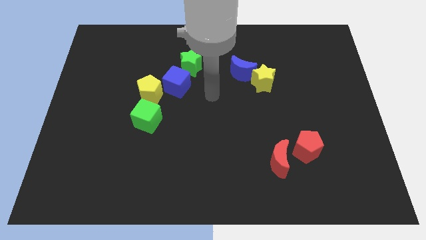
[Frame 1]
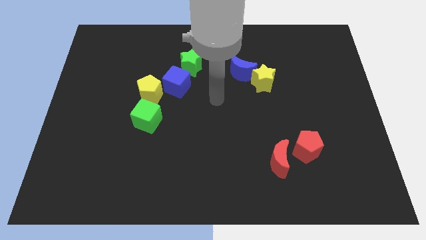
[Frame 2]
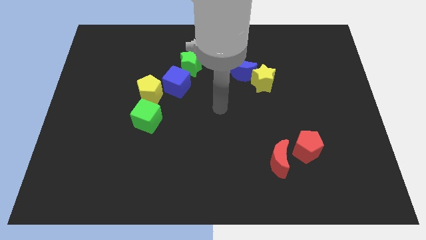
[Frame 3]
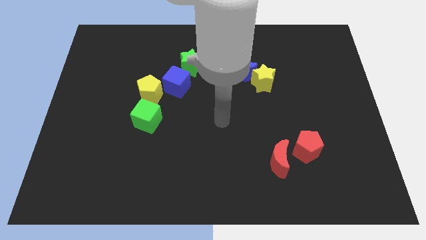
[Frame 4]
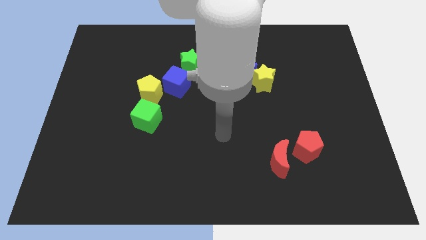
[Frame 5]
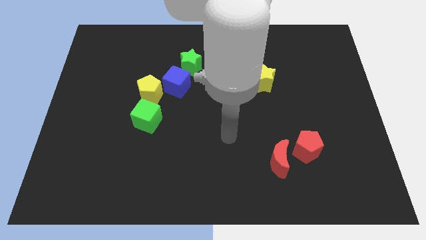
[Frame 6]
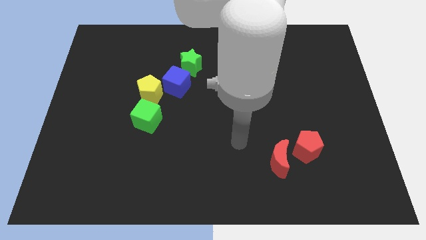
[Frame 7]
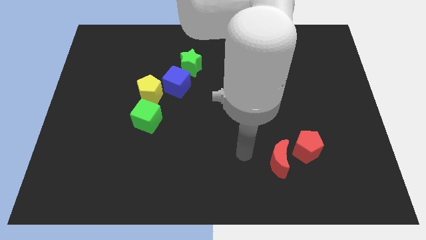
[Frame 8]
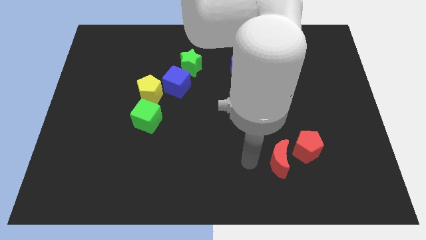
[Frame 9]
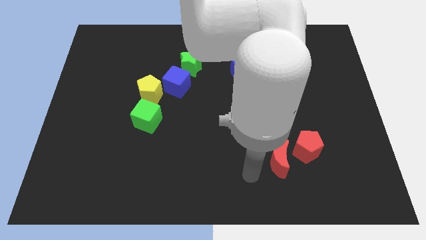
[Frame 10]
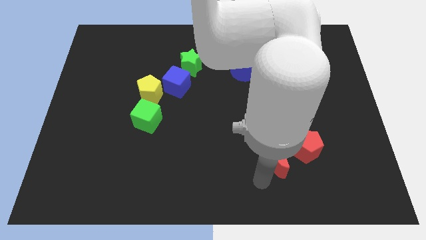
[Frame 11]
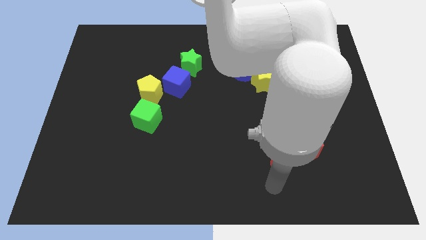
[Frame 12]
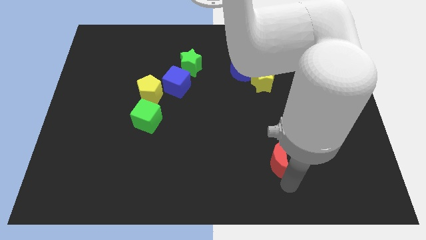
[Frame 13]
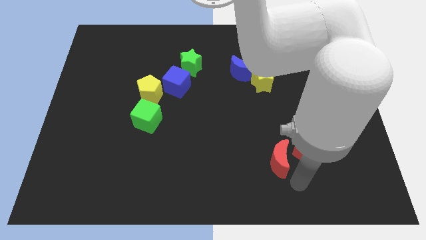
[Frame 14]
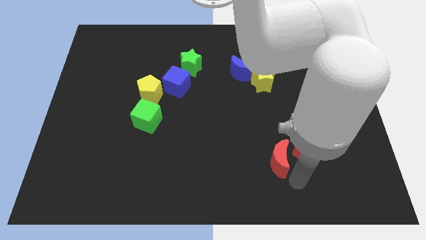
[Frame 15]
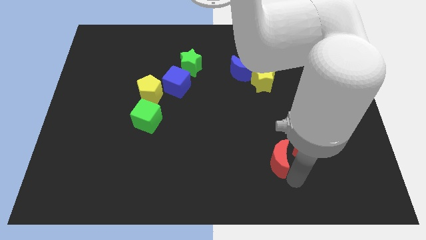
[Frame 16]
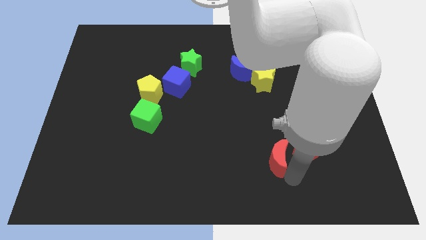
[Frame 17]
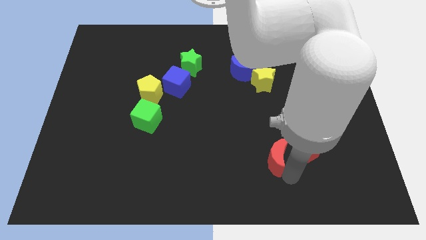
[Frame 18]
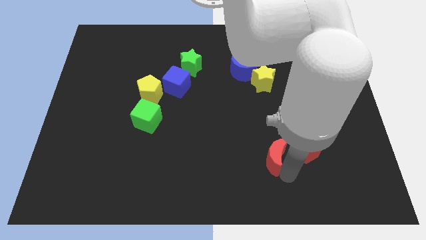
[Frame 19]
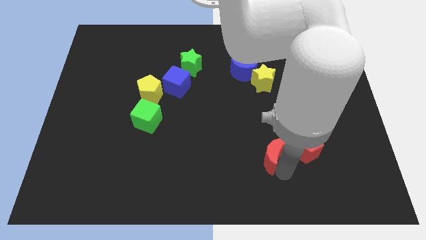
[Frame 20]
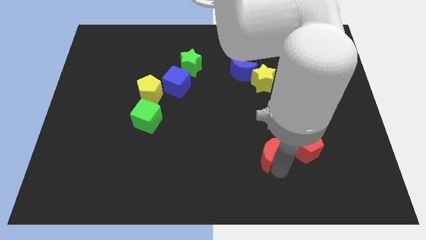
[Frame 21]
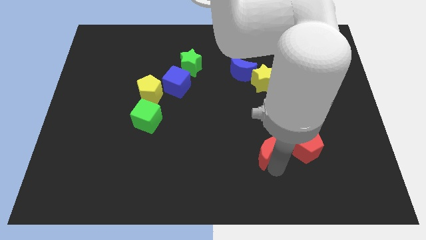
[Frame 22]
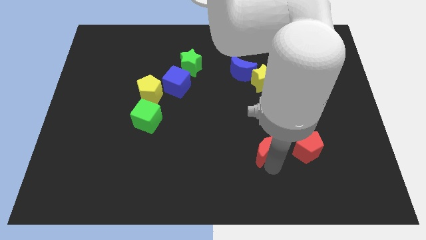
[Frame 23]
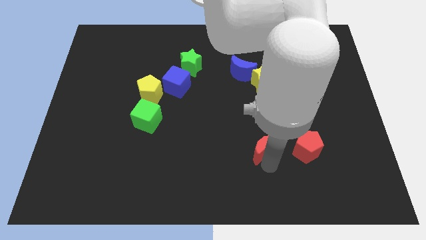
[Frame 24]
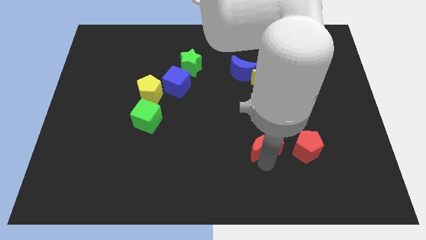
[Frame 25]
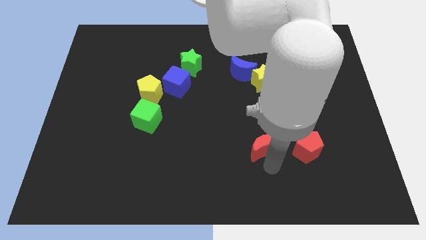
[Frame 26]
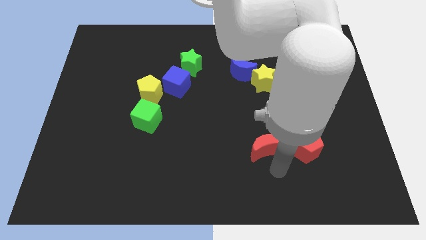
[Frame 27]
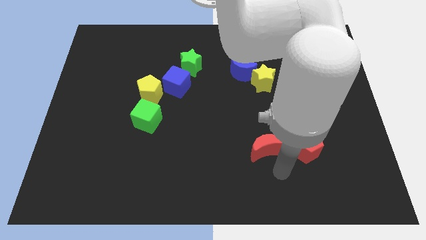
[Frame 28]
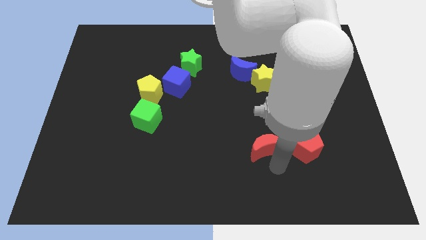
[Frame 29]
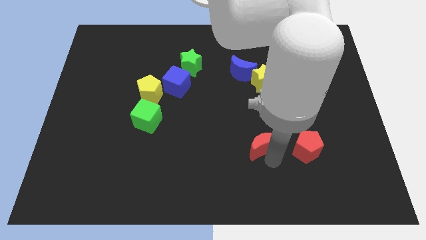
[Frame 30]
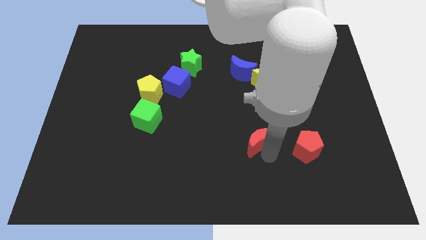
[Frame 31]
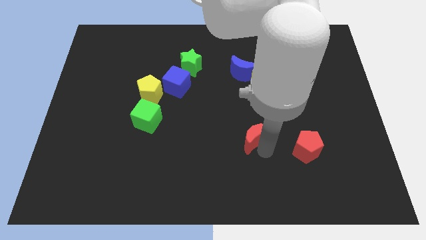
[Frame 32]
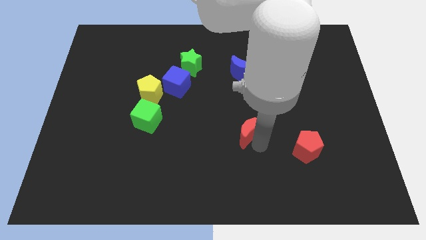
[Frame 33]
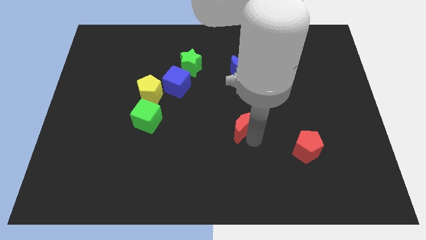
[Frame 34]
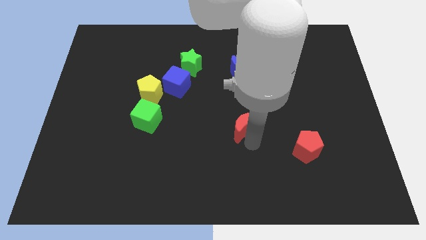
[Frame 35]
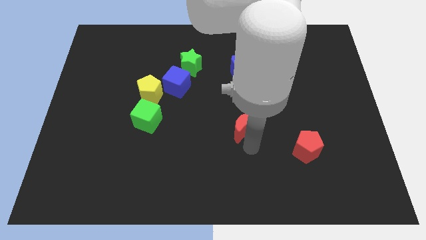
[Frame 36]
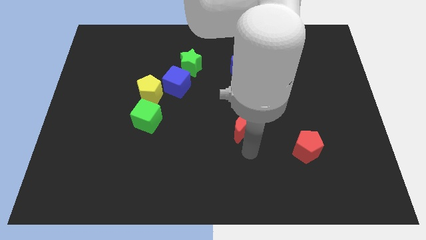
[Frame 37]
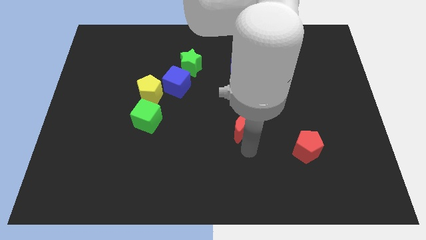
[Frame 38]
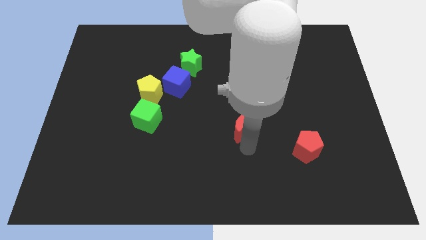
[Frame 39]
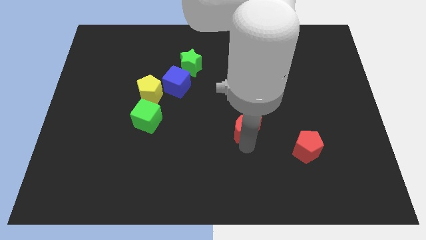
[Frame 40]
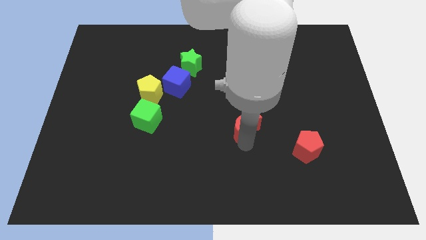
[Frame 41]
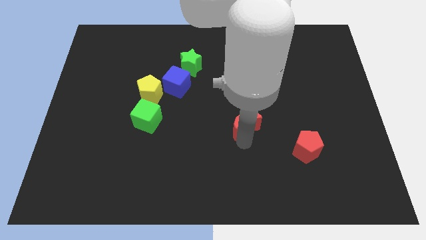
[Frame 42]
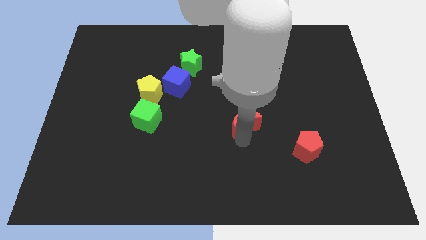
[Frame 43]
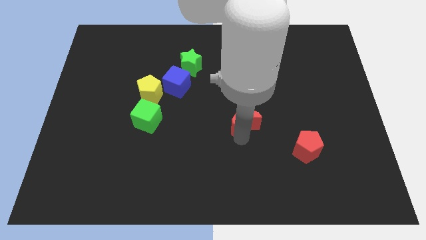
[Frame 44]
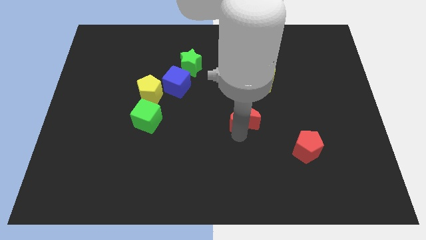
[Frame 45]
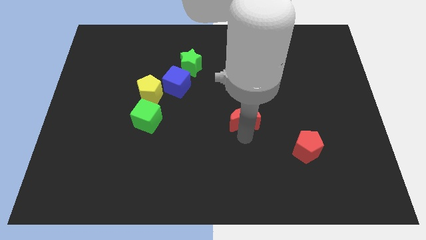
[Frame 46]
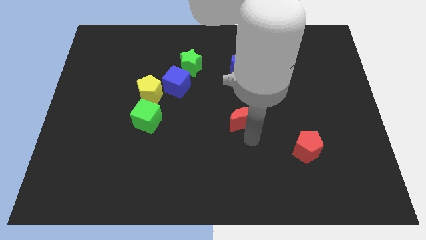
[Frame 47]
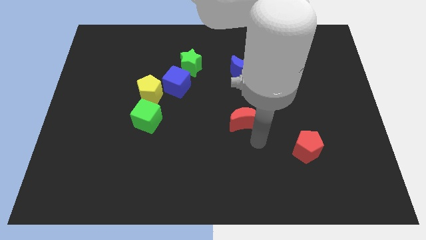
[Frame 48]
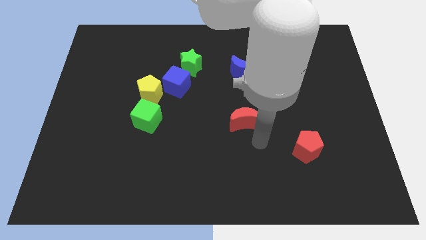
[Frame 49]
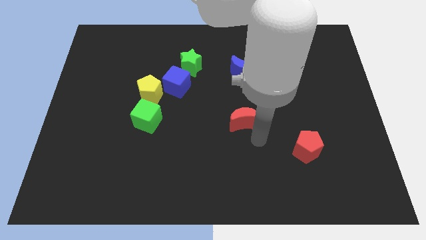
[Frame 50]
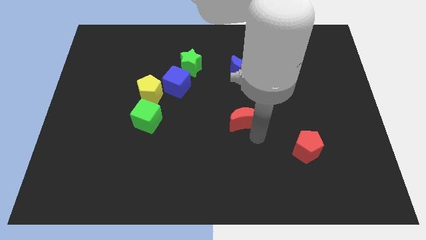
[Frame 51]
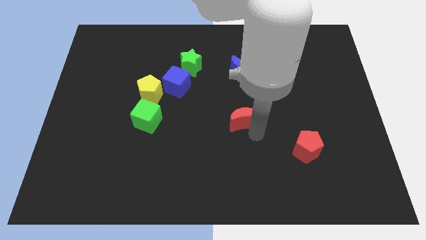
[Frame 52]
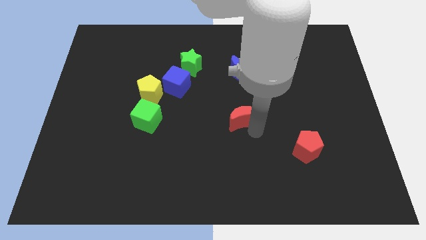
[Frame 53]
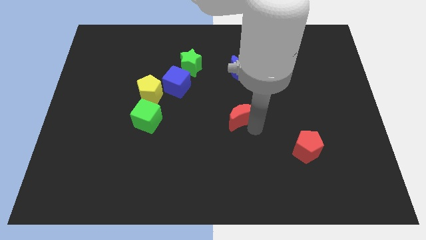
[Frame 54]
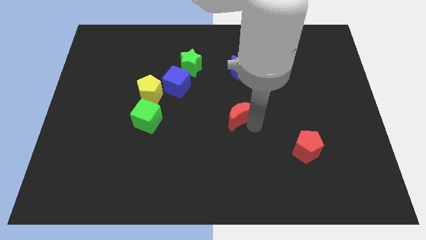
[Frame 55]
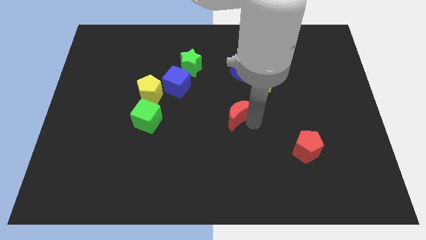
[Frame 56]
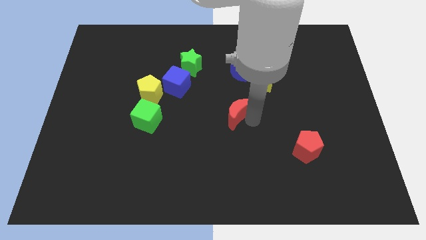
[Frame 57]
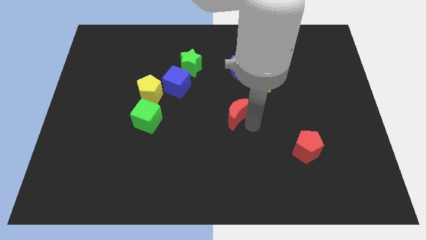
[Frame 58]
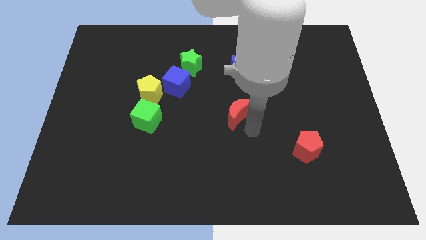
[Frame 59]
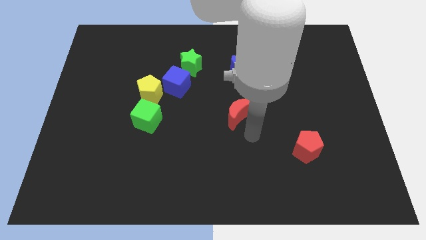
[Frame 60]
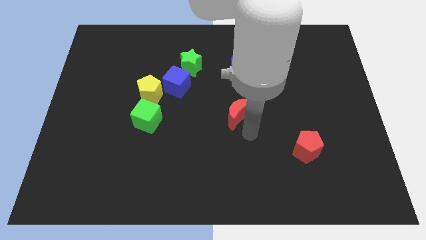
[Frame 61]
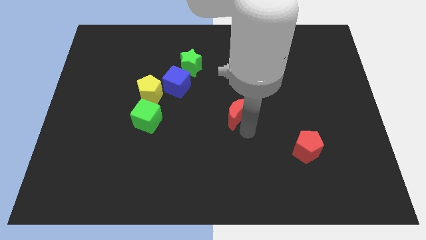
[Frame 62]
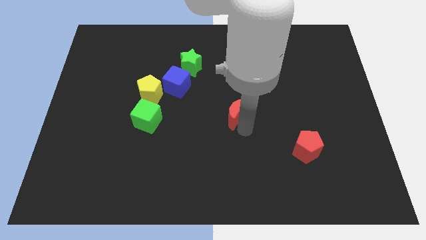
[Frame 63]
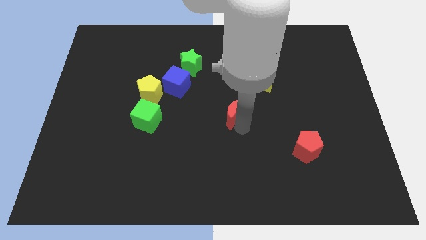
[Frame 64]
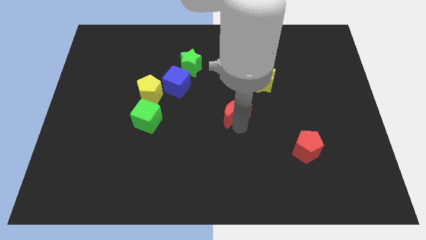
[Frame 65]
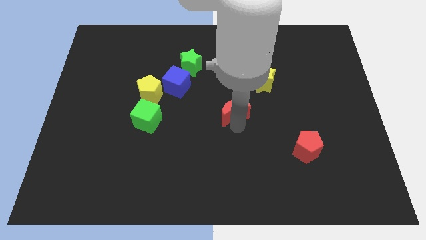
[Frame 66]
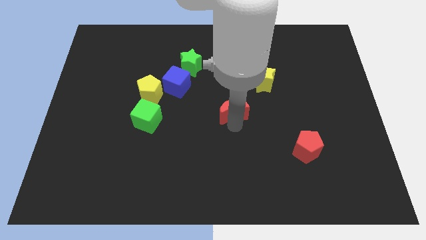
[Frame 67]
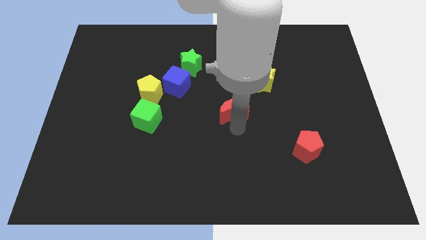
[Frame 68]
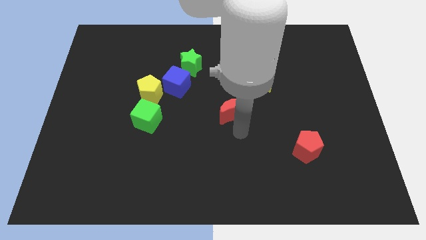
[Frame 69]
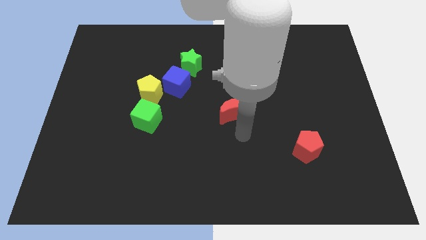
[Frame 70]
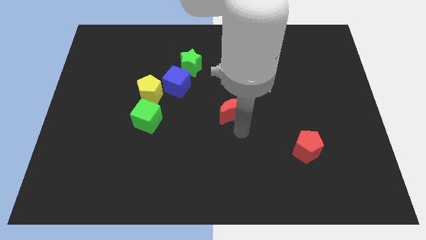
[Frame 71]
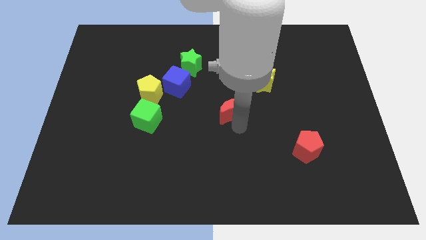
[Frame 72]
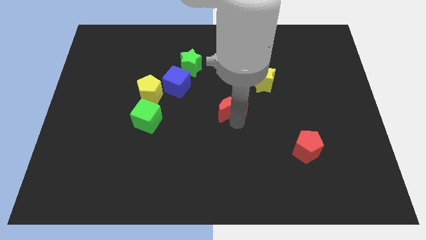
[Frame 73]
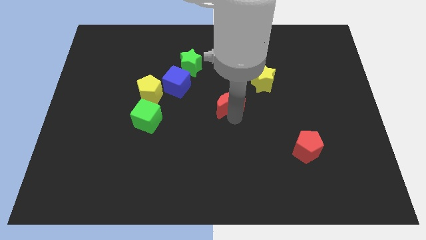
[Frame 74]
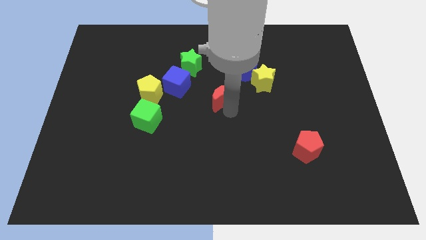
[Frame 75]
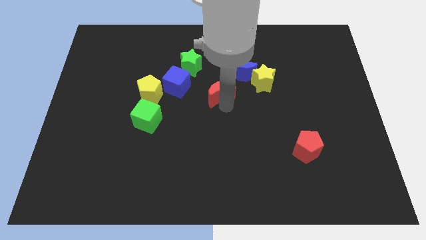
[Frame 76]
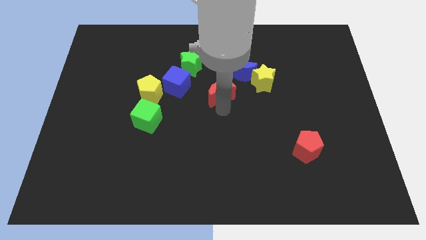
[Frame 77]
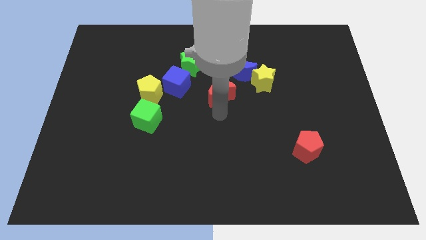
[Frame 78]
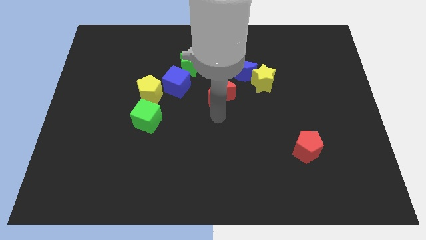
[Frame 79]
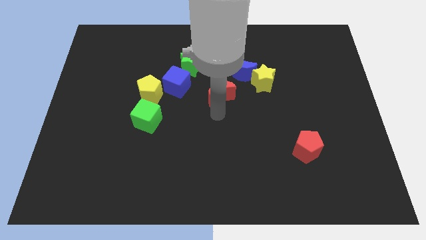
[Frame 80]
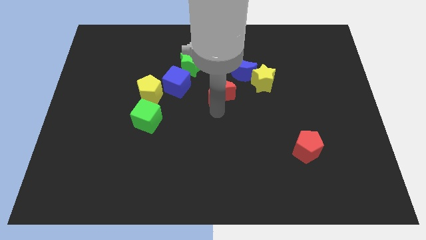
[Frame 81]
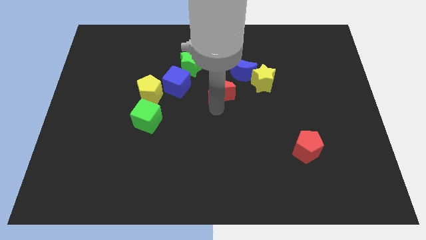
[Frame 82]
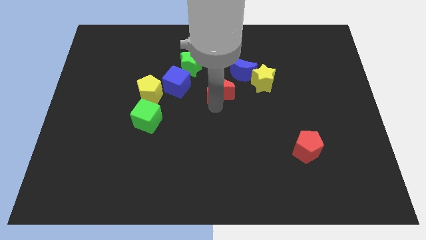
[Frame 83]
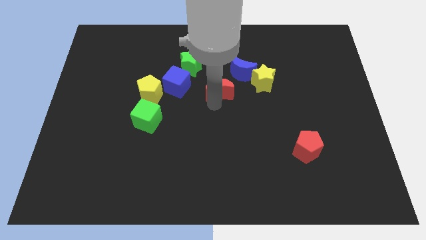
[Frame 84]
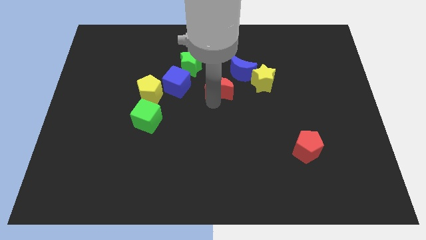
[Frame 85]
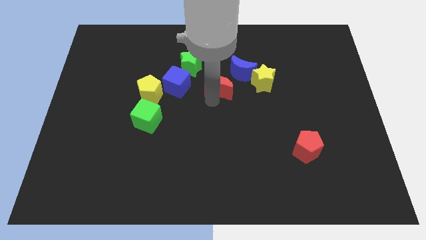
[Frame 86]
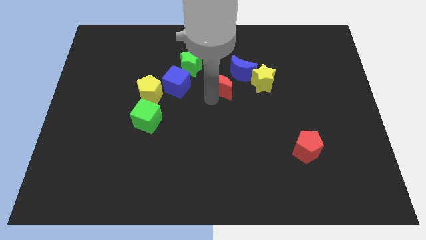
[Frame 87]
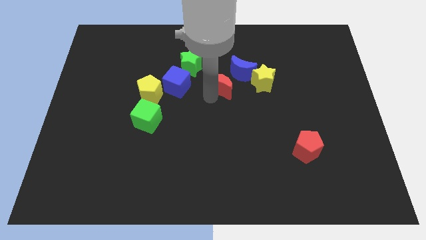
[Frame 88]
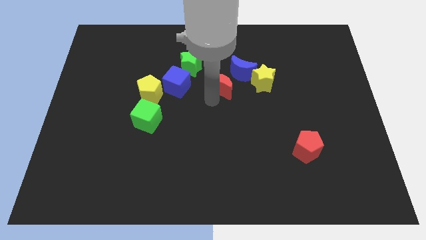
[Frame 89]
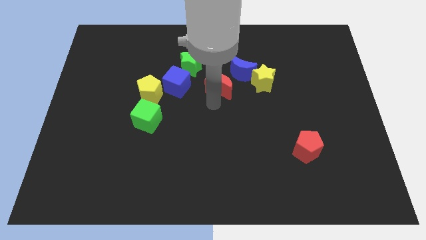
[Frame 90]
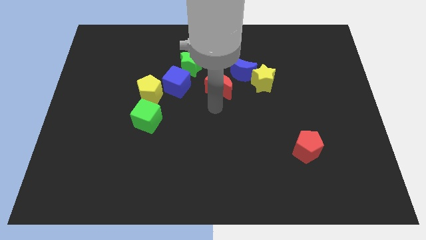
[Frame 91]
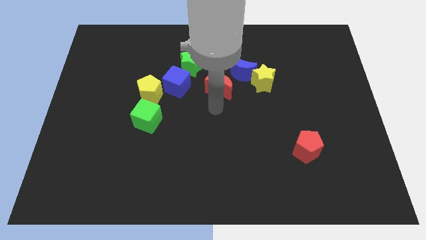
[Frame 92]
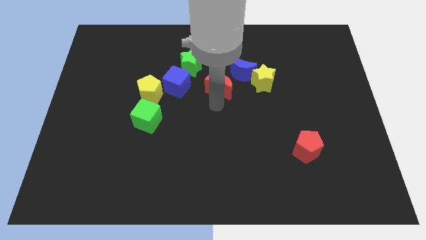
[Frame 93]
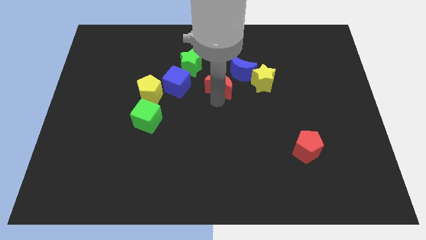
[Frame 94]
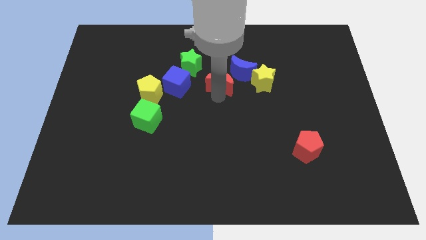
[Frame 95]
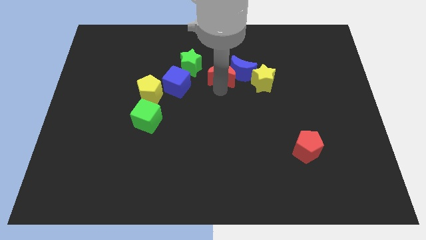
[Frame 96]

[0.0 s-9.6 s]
move the red moon to the top left of the blue moon
